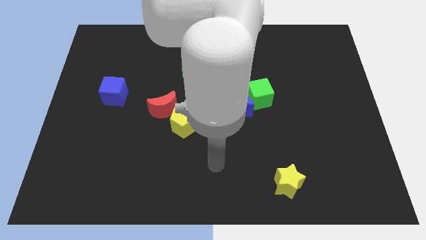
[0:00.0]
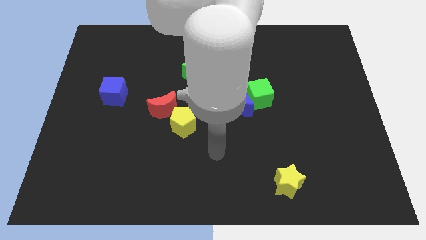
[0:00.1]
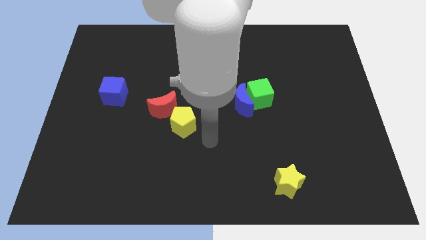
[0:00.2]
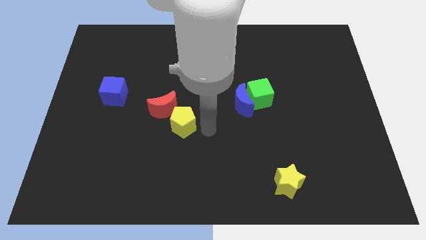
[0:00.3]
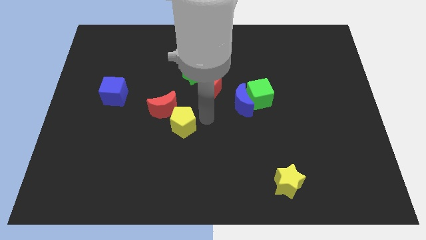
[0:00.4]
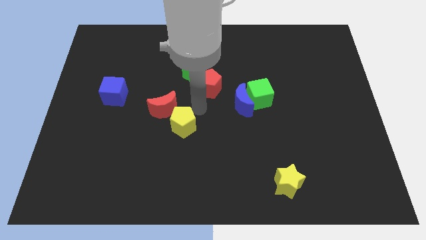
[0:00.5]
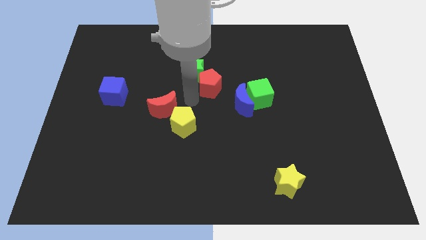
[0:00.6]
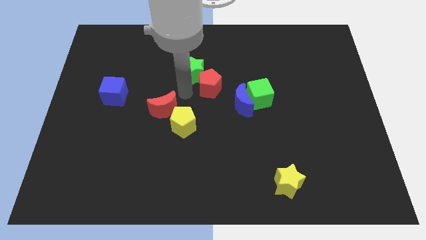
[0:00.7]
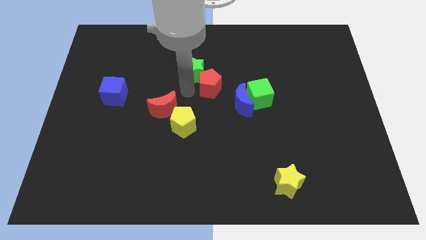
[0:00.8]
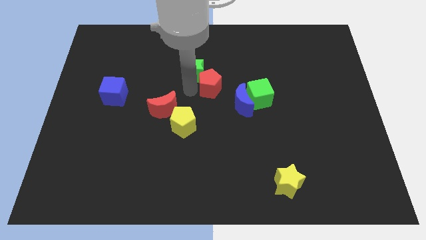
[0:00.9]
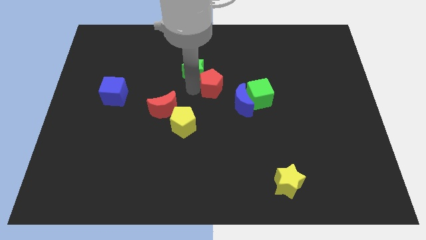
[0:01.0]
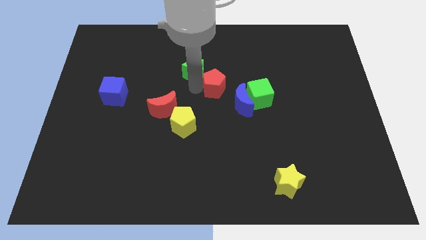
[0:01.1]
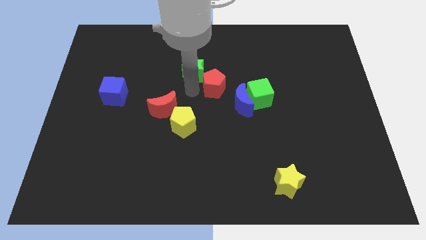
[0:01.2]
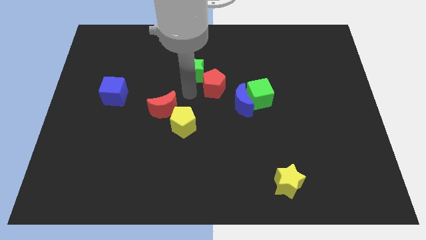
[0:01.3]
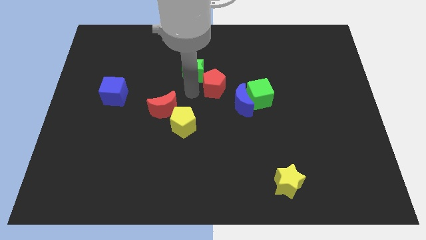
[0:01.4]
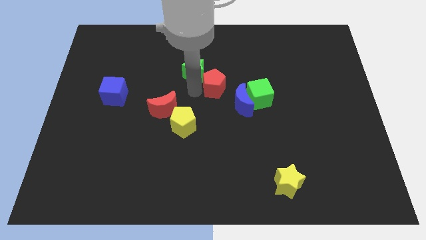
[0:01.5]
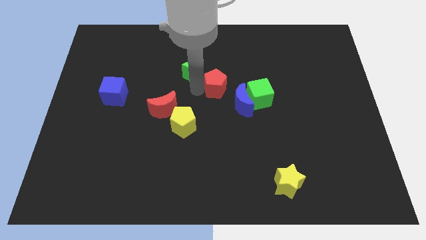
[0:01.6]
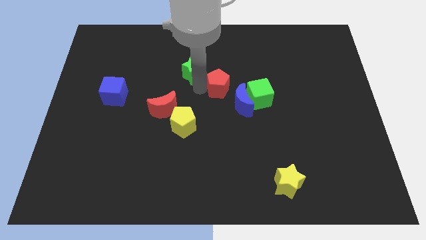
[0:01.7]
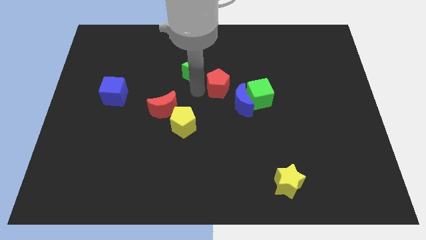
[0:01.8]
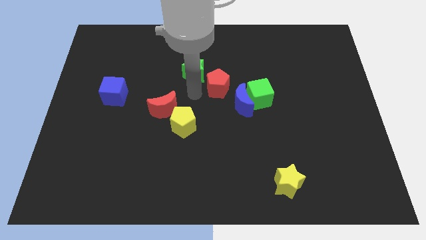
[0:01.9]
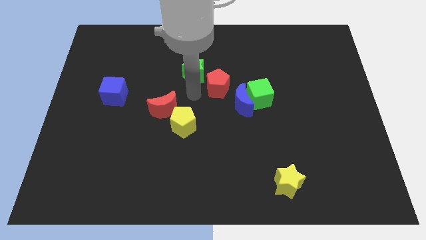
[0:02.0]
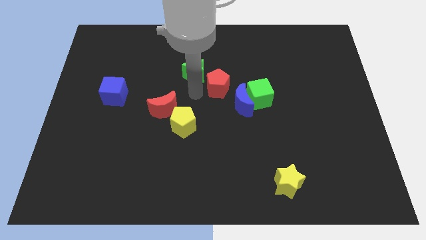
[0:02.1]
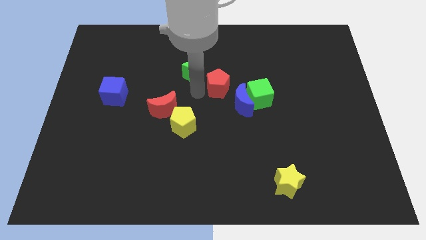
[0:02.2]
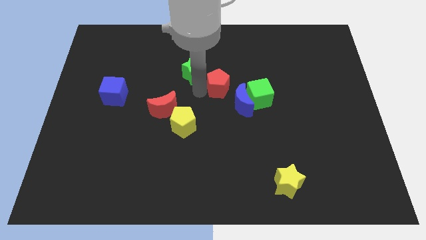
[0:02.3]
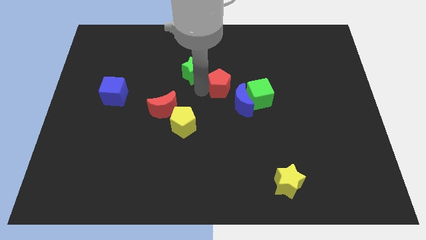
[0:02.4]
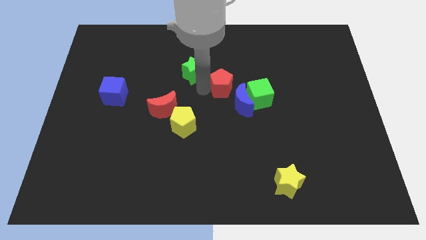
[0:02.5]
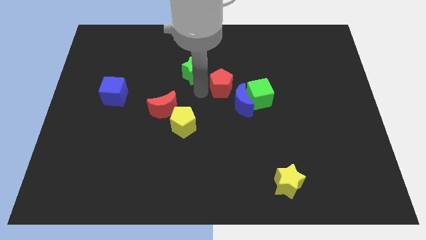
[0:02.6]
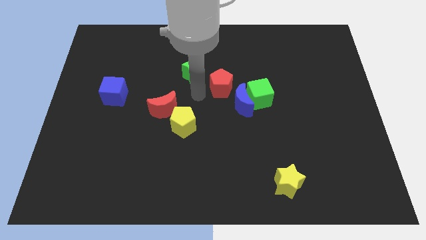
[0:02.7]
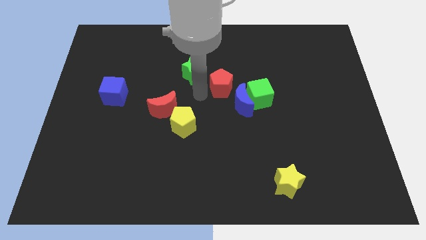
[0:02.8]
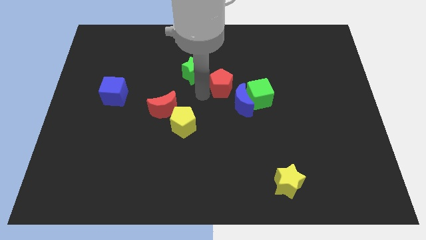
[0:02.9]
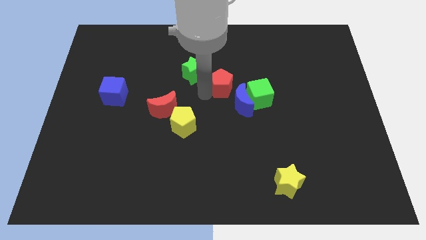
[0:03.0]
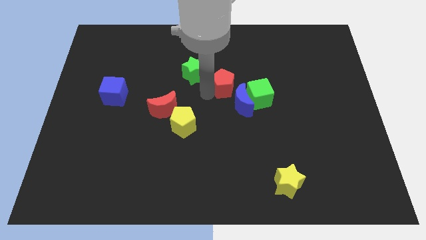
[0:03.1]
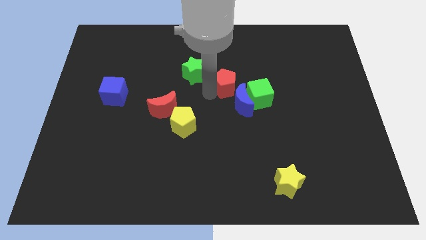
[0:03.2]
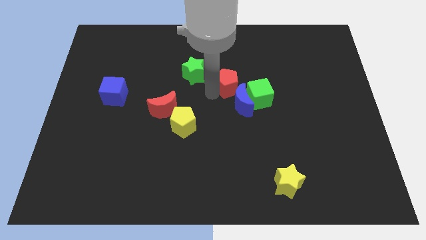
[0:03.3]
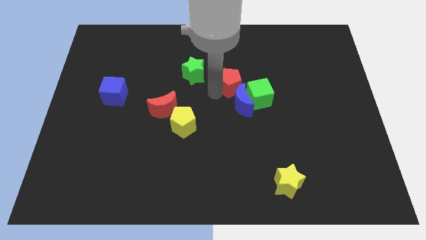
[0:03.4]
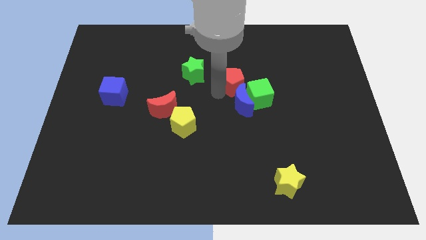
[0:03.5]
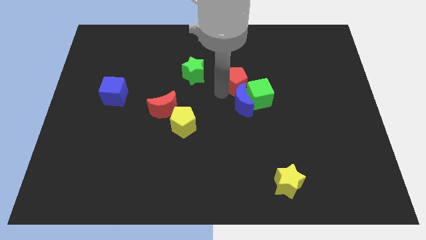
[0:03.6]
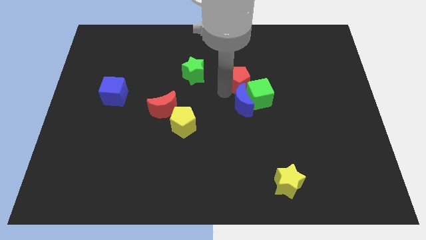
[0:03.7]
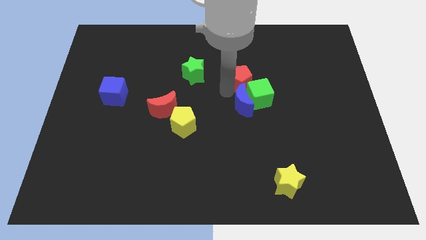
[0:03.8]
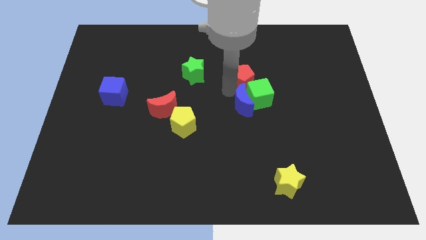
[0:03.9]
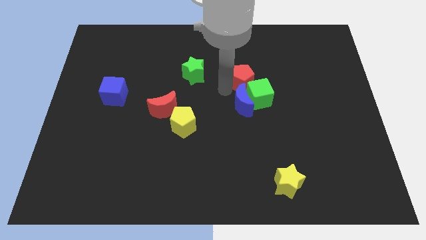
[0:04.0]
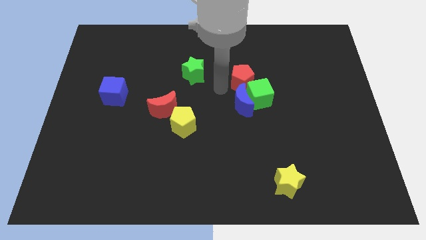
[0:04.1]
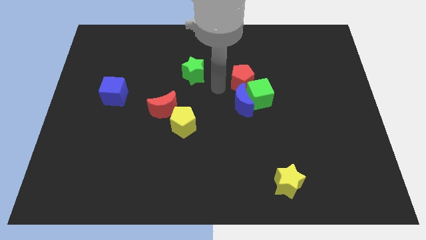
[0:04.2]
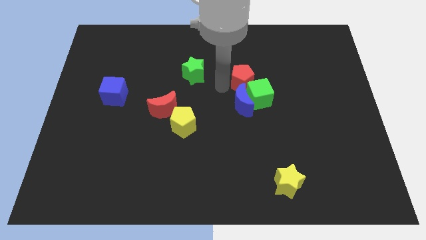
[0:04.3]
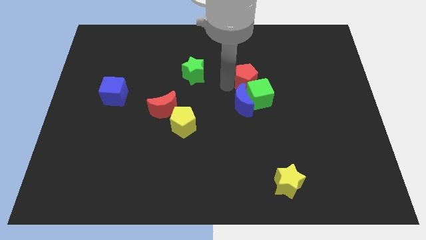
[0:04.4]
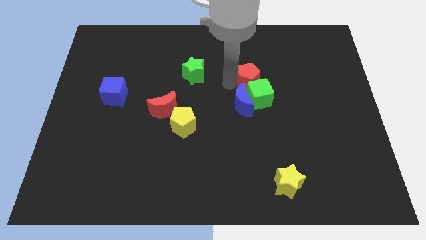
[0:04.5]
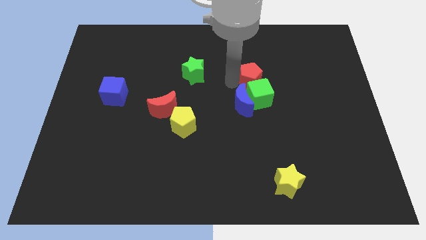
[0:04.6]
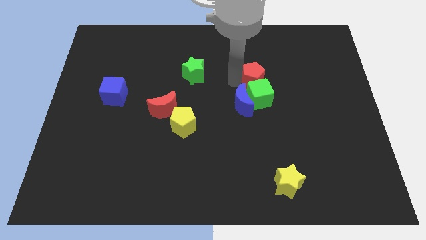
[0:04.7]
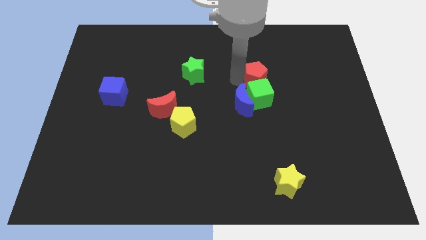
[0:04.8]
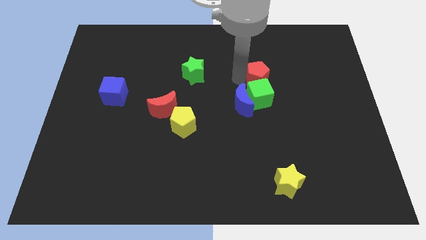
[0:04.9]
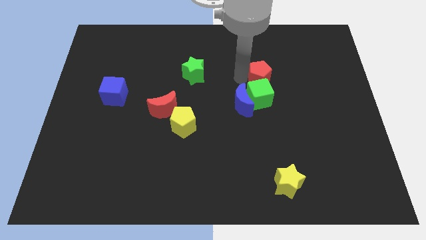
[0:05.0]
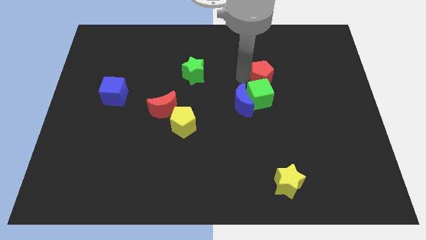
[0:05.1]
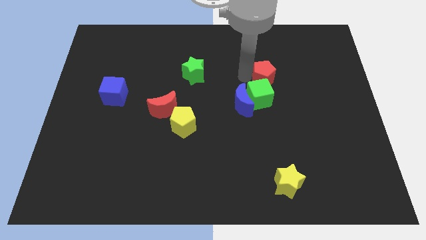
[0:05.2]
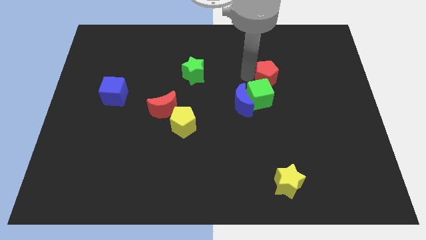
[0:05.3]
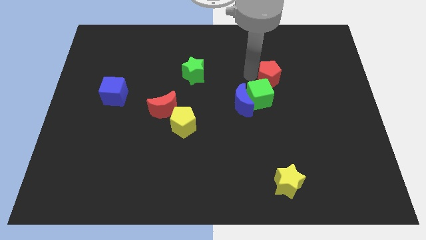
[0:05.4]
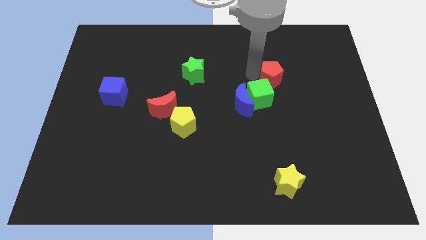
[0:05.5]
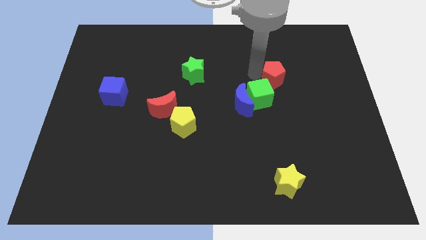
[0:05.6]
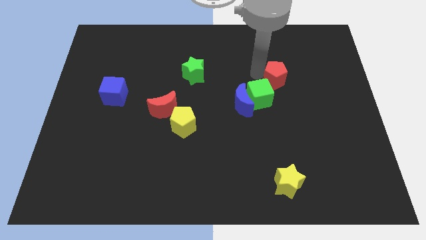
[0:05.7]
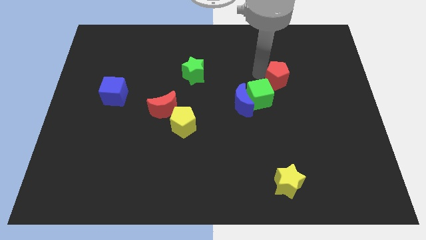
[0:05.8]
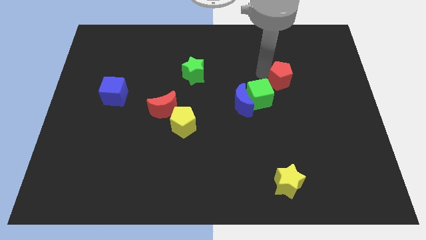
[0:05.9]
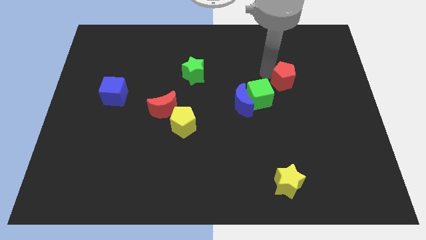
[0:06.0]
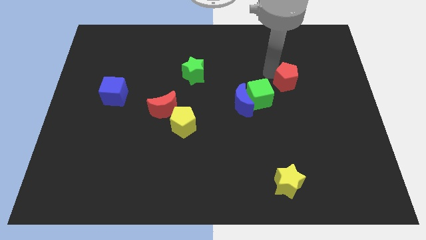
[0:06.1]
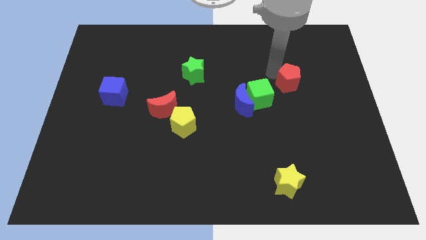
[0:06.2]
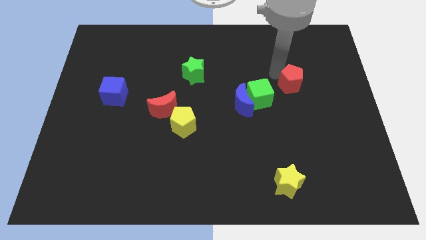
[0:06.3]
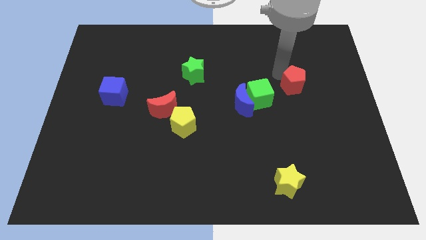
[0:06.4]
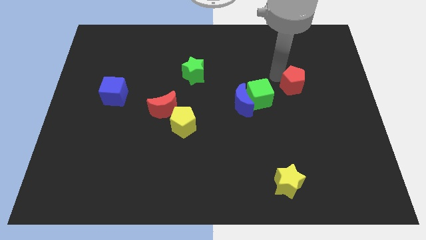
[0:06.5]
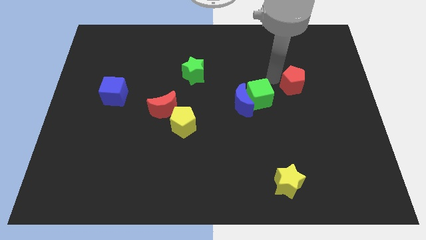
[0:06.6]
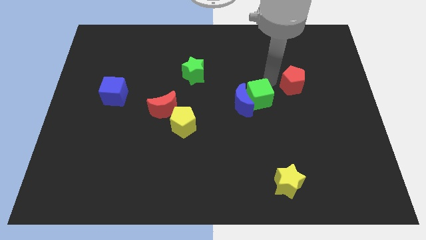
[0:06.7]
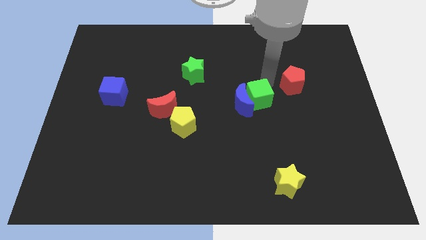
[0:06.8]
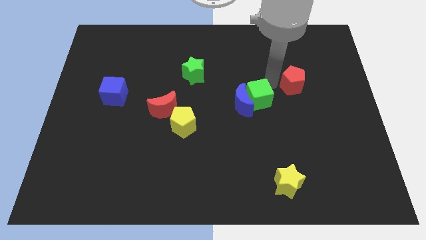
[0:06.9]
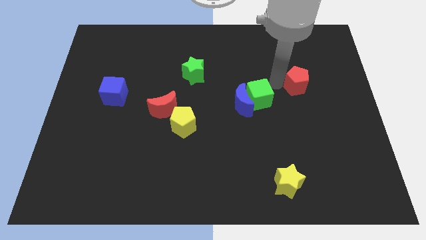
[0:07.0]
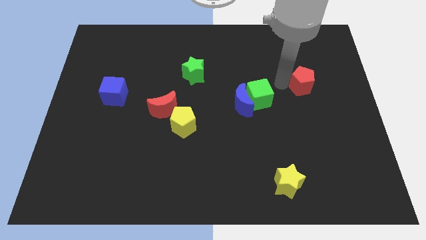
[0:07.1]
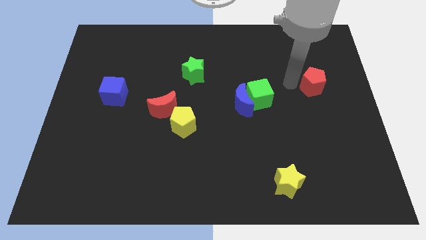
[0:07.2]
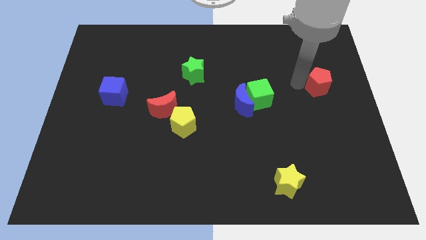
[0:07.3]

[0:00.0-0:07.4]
push the red pentagon to the right side
